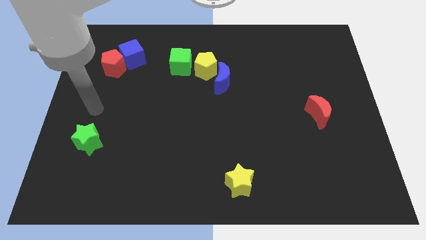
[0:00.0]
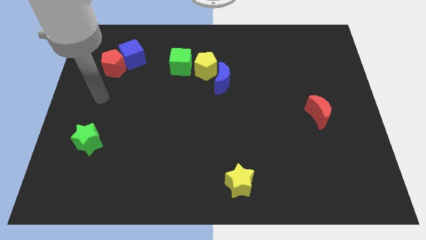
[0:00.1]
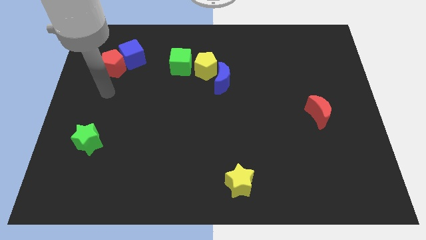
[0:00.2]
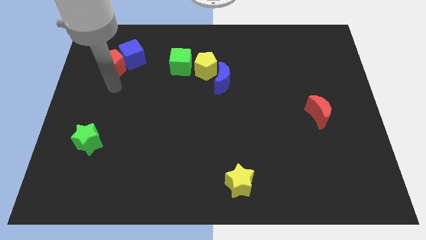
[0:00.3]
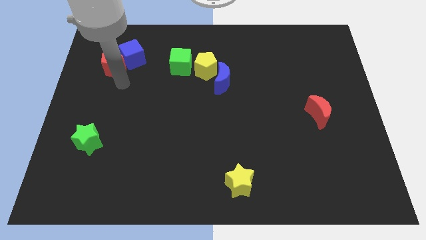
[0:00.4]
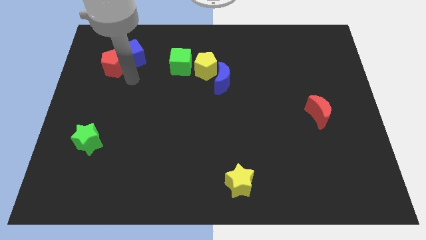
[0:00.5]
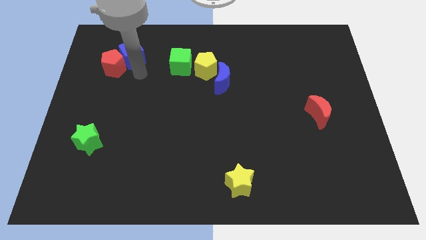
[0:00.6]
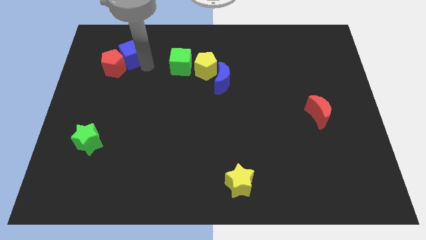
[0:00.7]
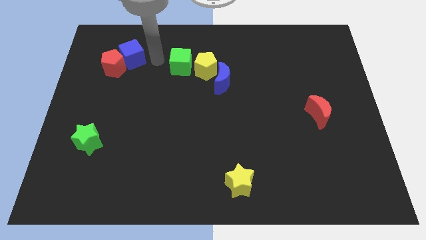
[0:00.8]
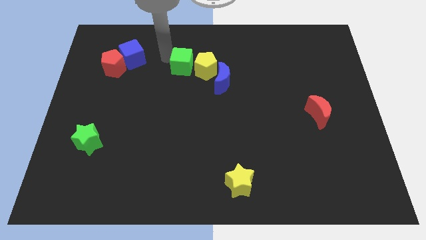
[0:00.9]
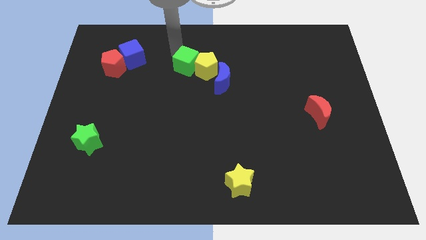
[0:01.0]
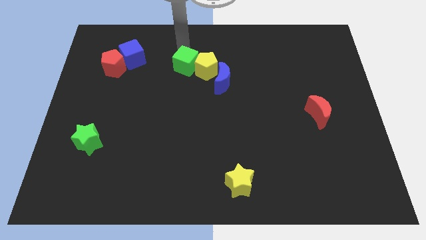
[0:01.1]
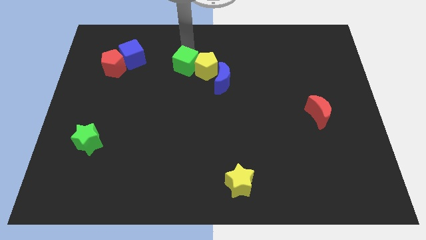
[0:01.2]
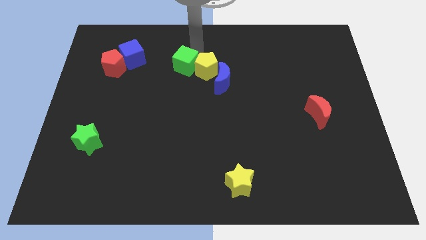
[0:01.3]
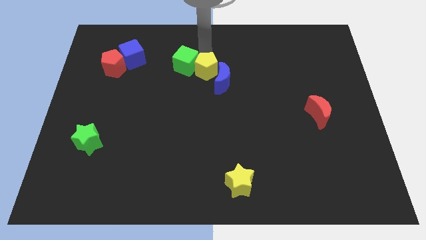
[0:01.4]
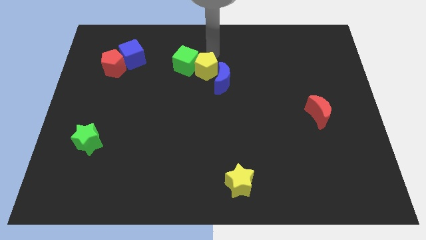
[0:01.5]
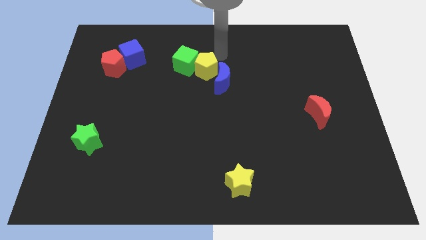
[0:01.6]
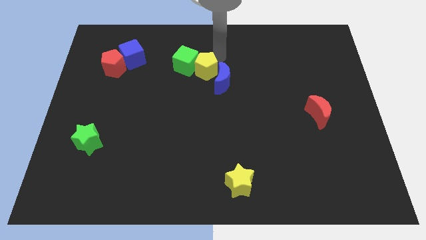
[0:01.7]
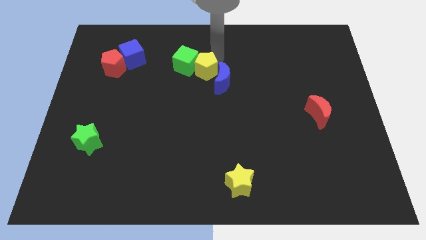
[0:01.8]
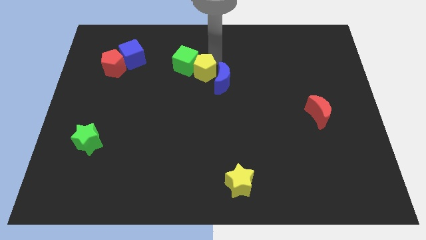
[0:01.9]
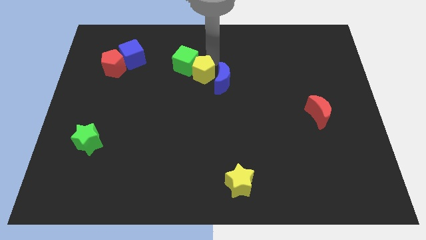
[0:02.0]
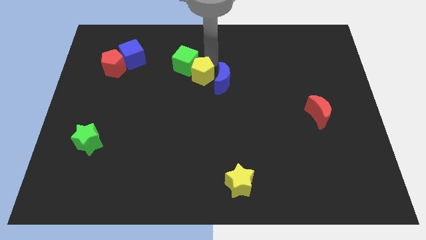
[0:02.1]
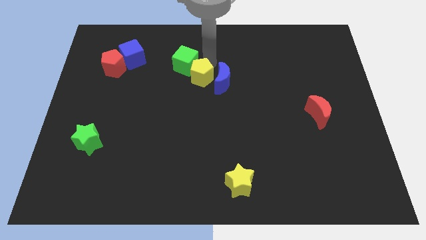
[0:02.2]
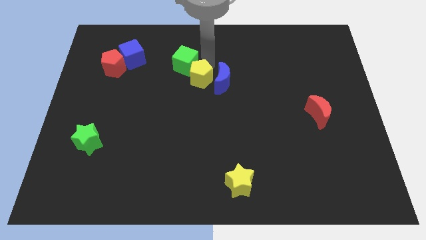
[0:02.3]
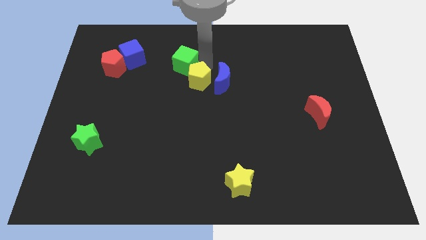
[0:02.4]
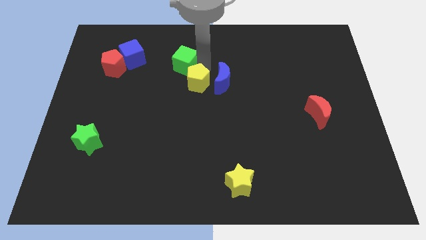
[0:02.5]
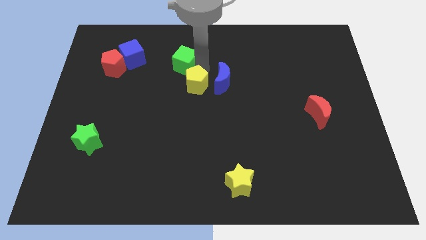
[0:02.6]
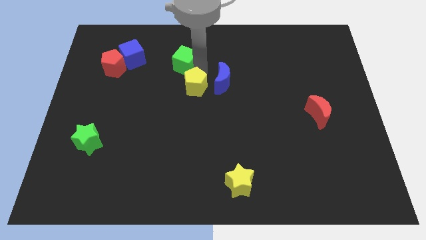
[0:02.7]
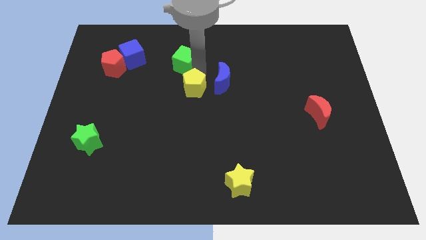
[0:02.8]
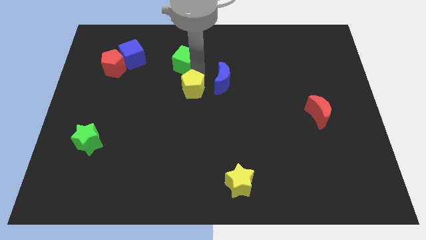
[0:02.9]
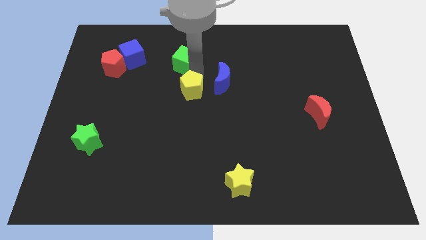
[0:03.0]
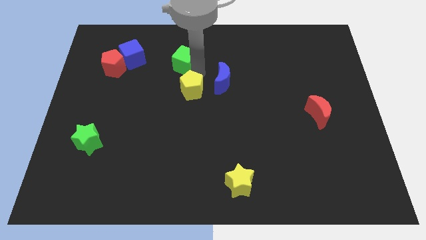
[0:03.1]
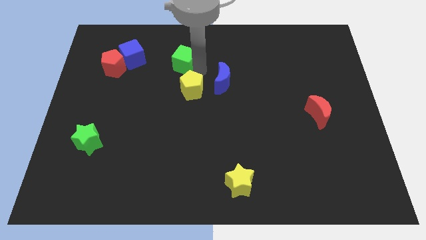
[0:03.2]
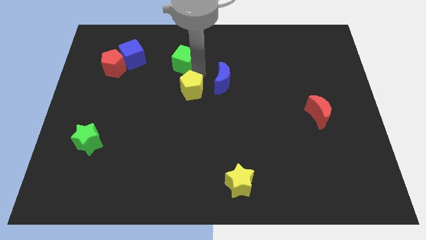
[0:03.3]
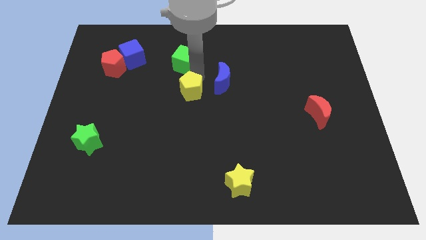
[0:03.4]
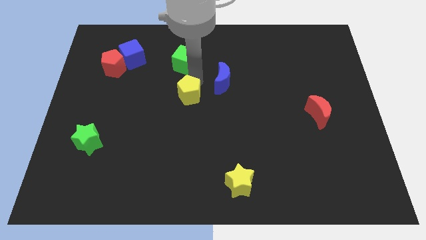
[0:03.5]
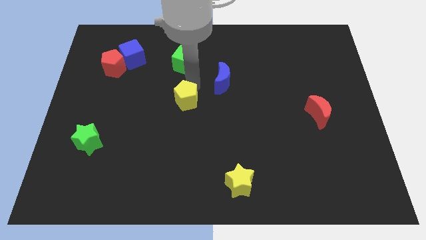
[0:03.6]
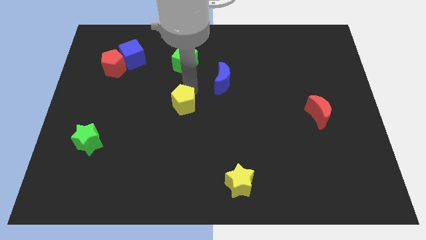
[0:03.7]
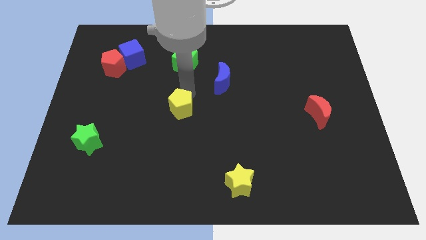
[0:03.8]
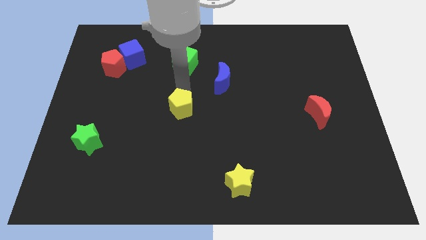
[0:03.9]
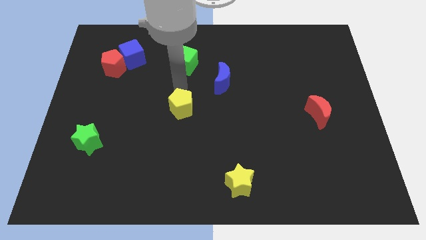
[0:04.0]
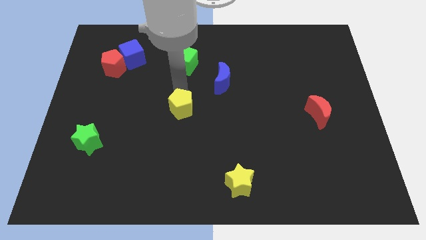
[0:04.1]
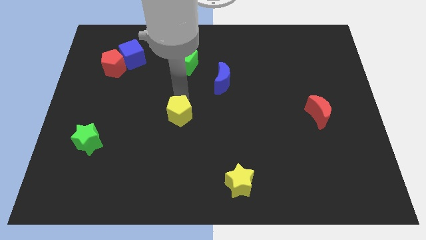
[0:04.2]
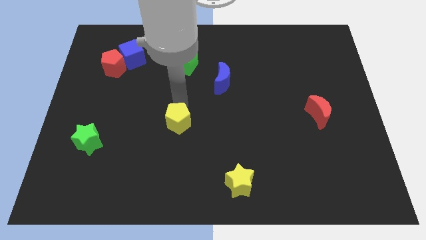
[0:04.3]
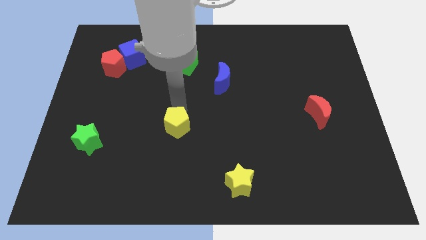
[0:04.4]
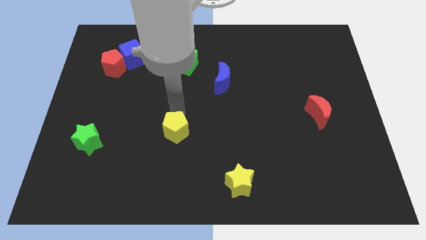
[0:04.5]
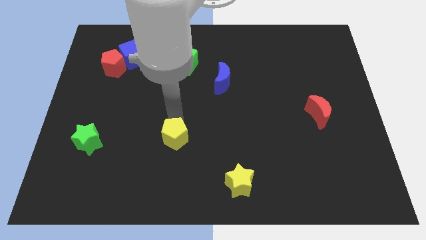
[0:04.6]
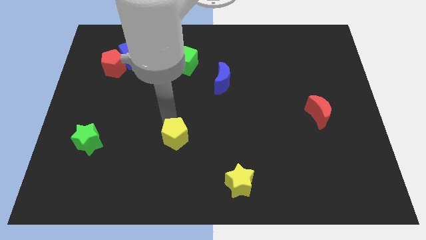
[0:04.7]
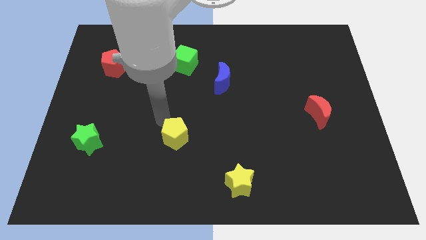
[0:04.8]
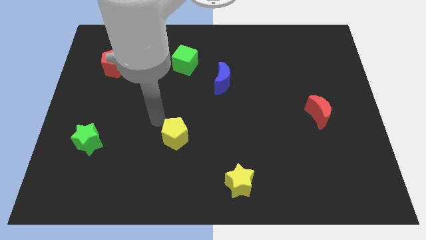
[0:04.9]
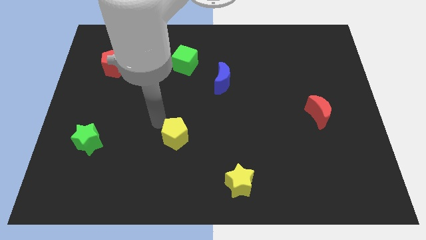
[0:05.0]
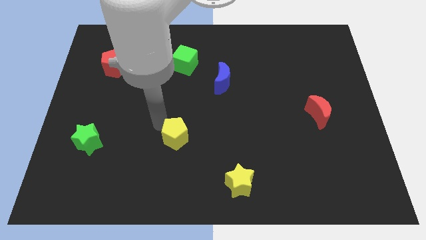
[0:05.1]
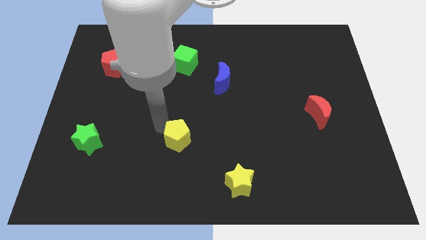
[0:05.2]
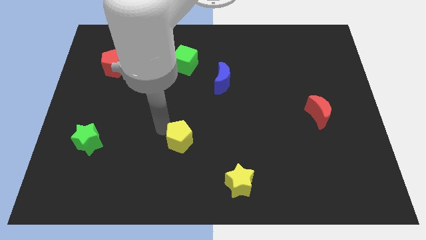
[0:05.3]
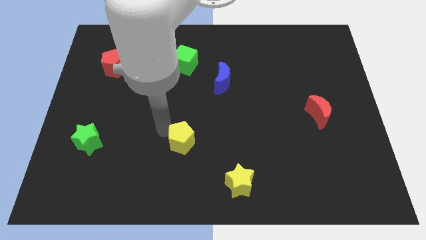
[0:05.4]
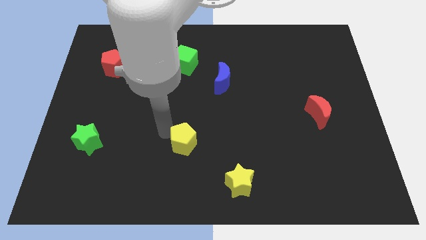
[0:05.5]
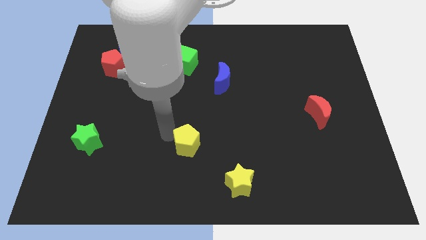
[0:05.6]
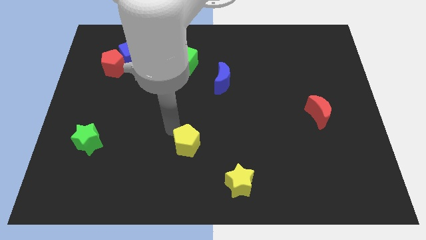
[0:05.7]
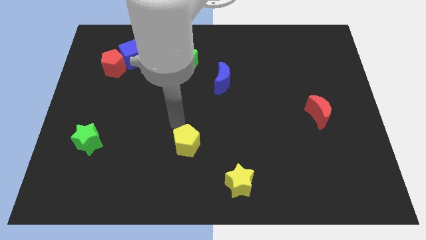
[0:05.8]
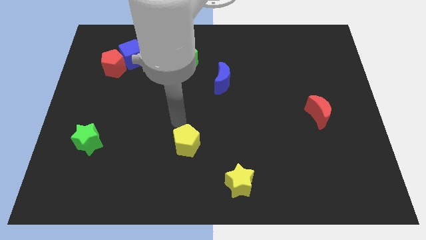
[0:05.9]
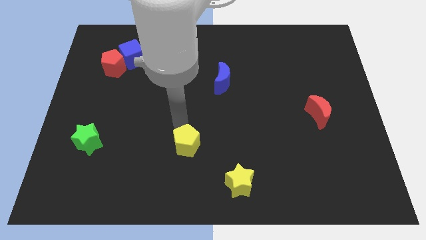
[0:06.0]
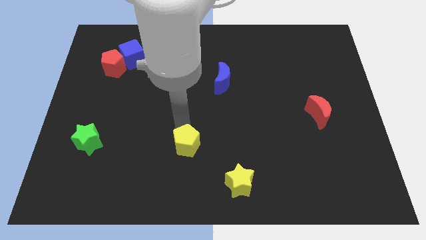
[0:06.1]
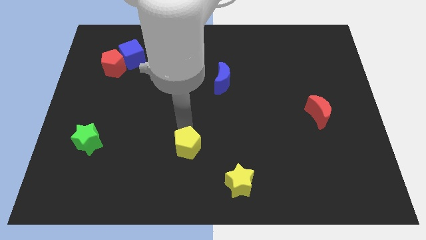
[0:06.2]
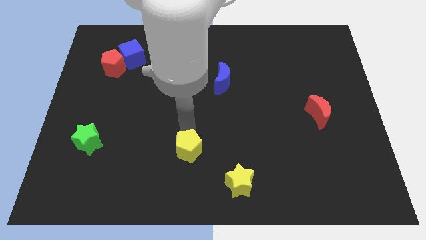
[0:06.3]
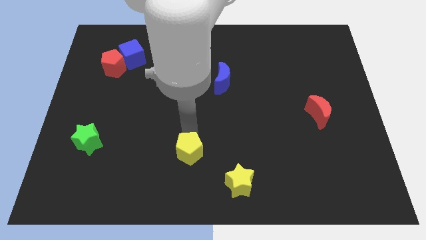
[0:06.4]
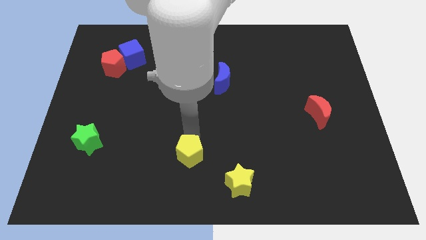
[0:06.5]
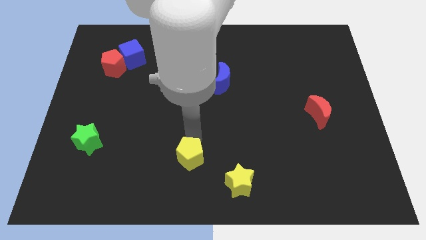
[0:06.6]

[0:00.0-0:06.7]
push the yellow pentagon to the bottom
